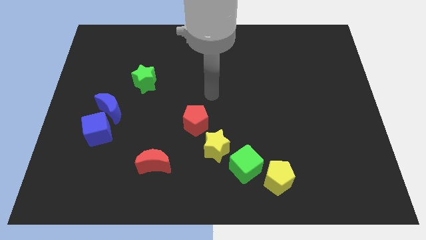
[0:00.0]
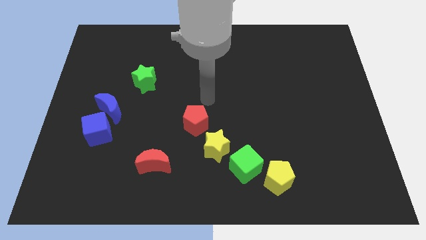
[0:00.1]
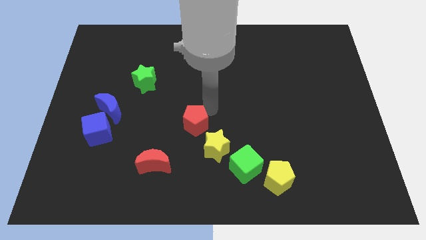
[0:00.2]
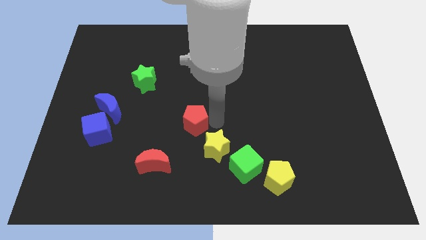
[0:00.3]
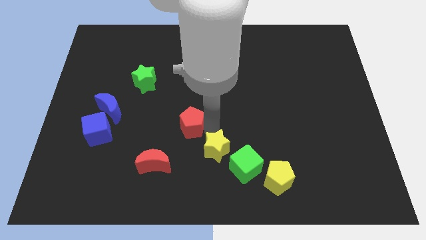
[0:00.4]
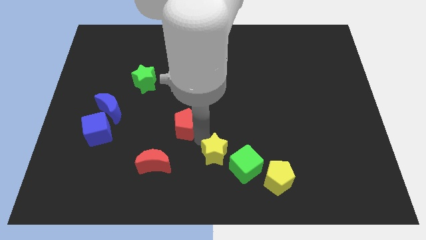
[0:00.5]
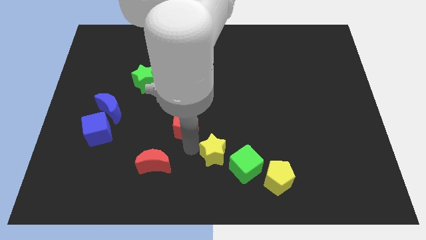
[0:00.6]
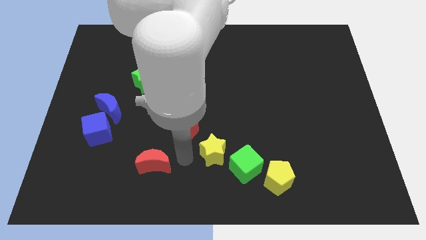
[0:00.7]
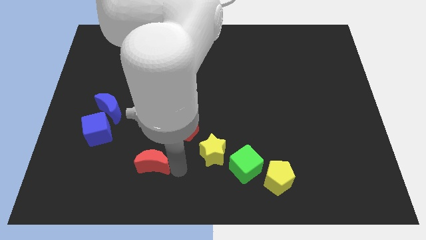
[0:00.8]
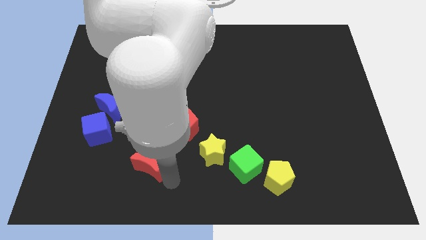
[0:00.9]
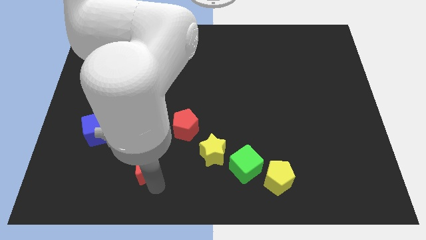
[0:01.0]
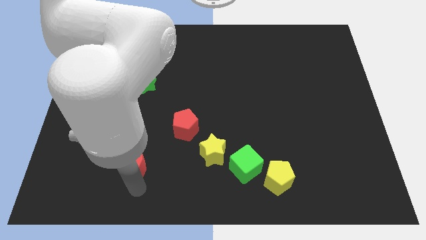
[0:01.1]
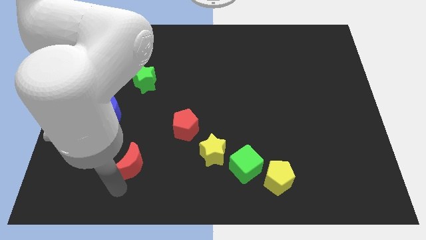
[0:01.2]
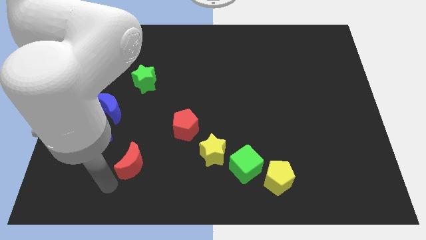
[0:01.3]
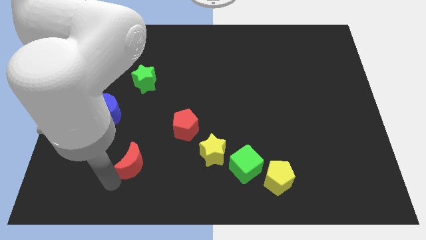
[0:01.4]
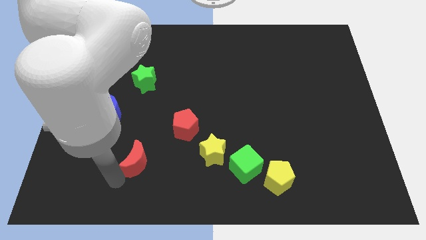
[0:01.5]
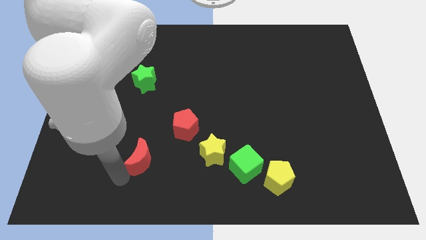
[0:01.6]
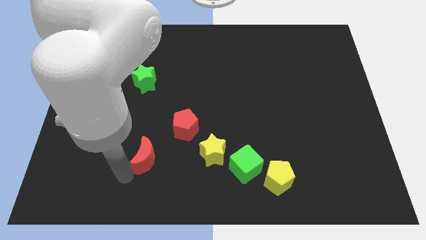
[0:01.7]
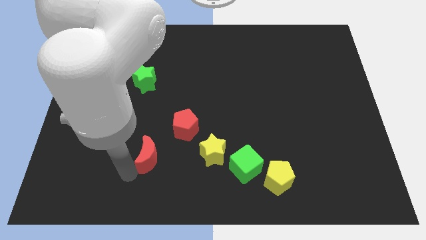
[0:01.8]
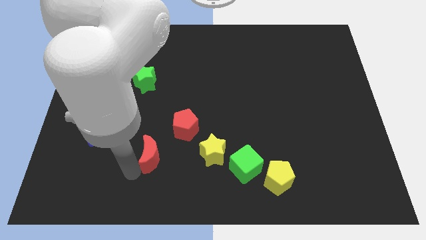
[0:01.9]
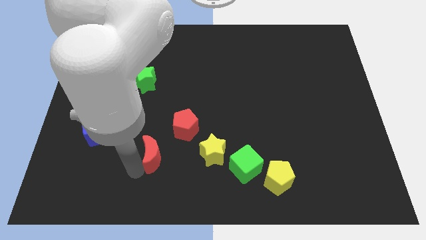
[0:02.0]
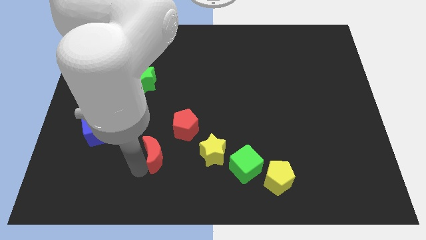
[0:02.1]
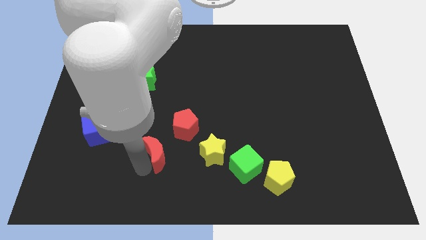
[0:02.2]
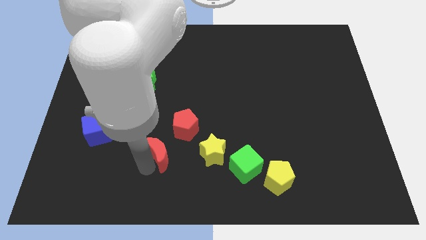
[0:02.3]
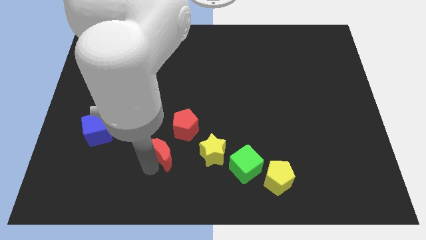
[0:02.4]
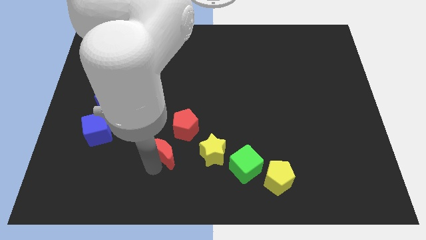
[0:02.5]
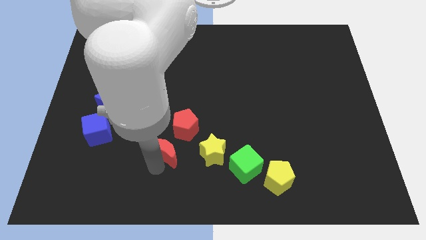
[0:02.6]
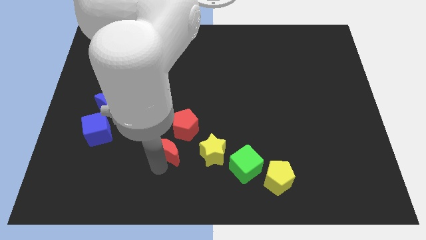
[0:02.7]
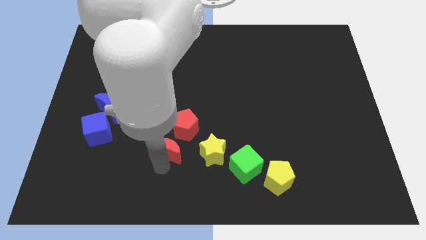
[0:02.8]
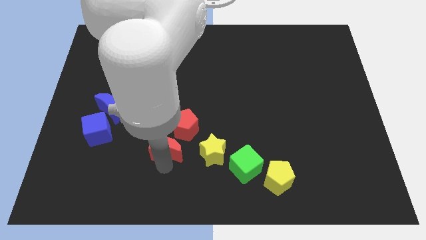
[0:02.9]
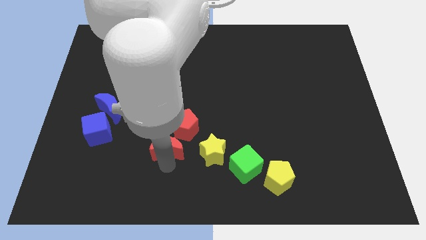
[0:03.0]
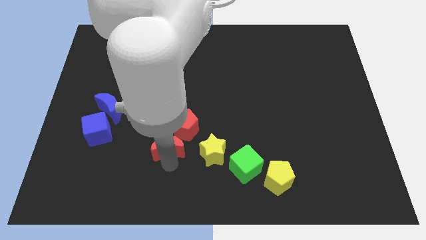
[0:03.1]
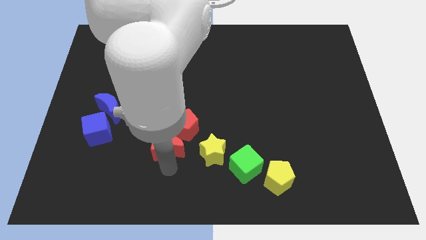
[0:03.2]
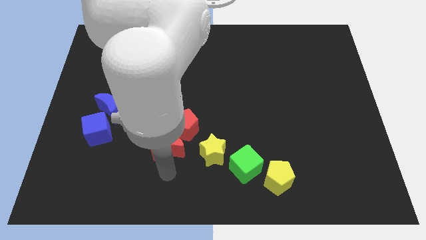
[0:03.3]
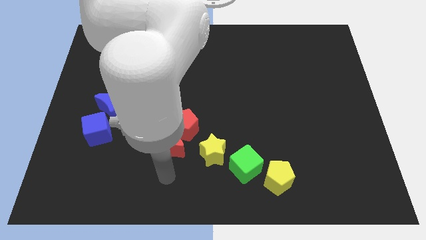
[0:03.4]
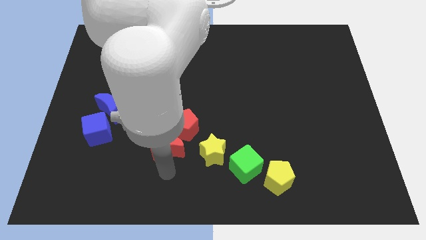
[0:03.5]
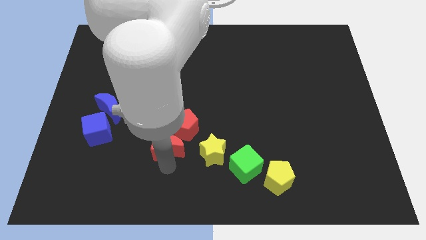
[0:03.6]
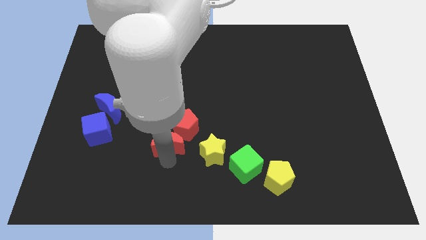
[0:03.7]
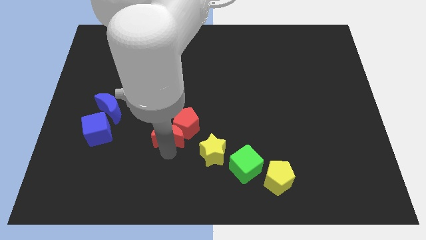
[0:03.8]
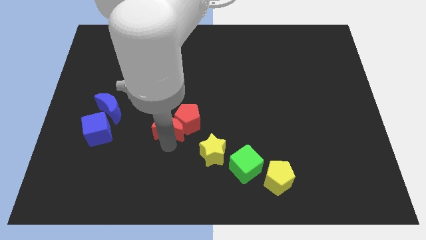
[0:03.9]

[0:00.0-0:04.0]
push the red moon up and to the right somewhat

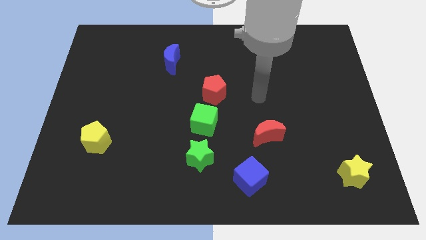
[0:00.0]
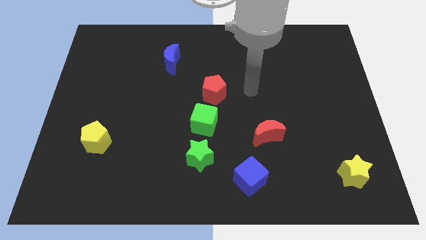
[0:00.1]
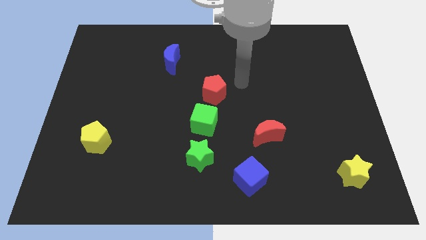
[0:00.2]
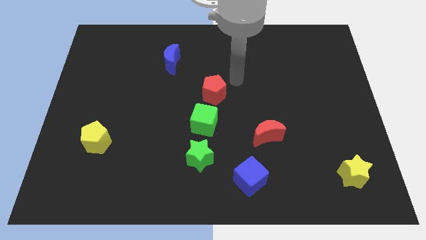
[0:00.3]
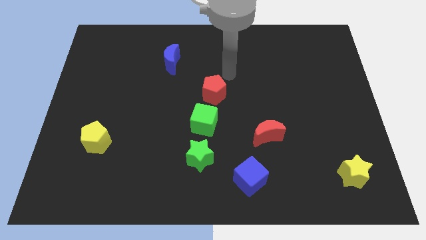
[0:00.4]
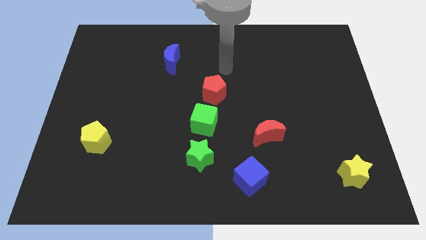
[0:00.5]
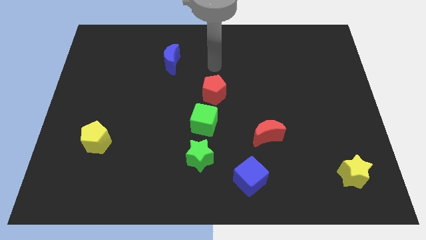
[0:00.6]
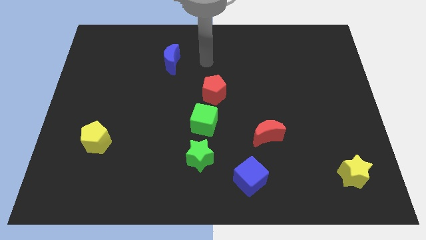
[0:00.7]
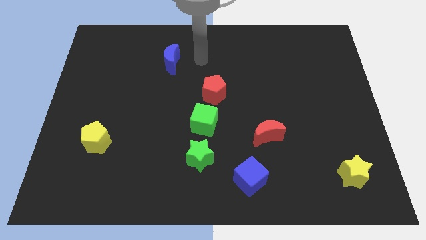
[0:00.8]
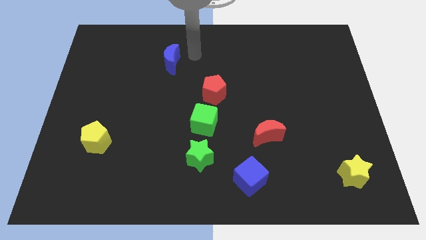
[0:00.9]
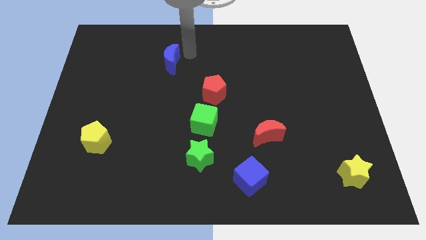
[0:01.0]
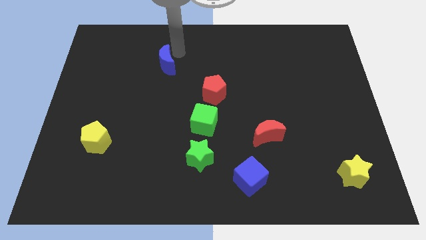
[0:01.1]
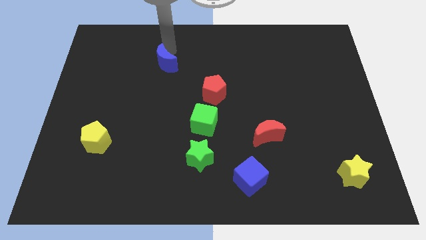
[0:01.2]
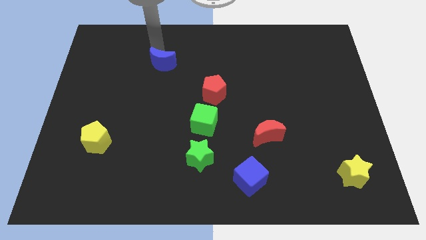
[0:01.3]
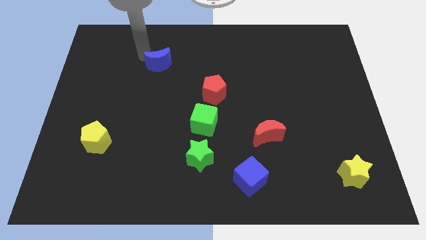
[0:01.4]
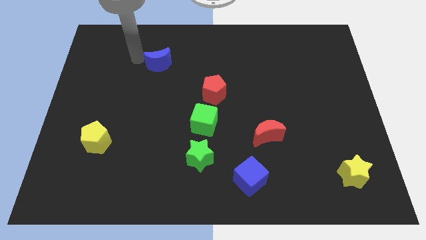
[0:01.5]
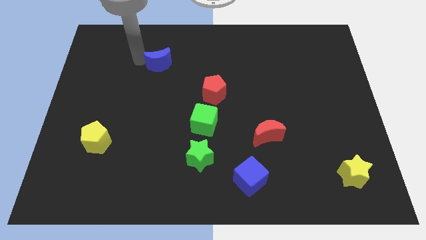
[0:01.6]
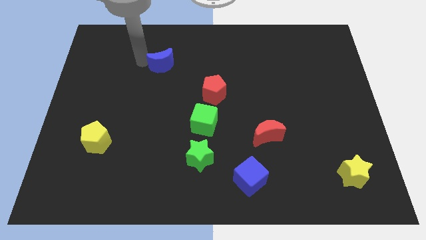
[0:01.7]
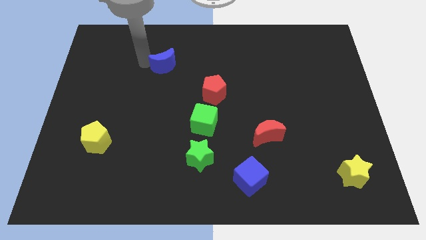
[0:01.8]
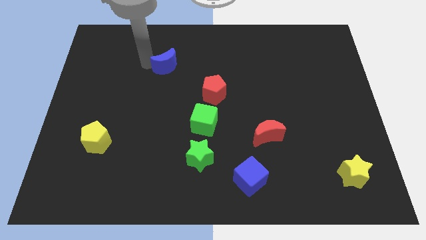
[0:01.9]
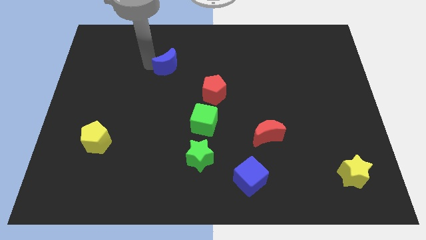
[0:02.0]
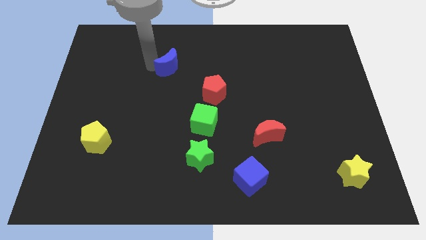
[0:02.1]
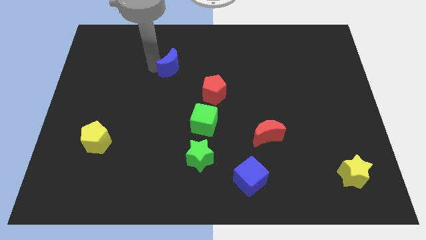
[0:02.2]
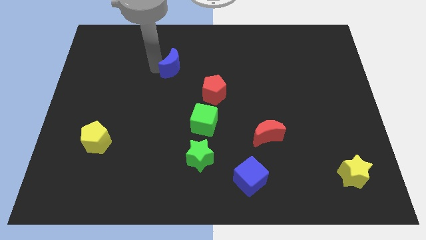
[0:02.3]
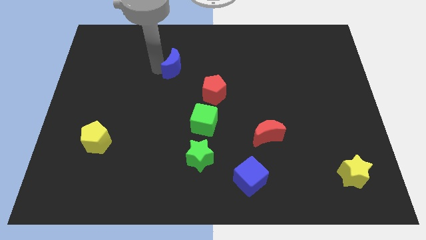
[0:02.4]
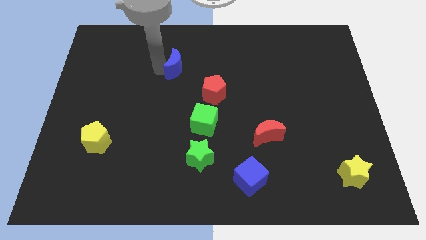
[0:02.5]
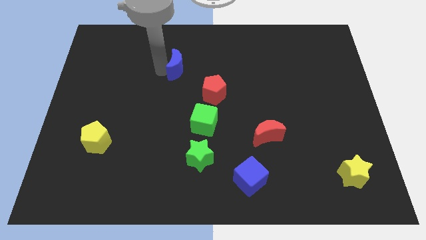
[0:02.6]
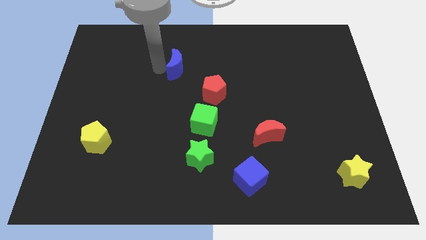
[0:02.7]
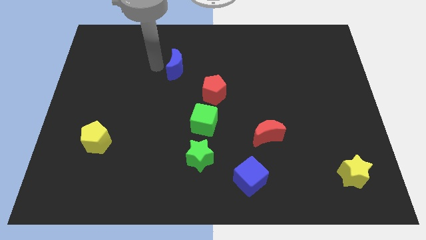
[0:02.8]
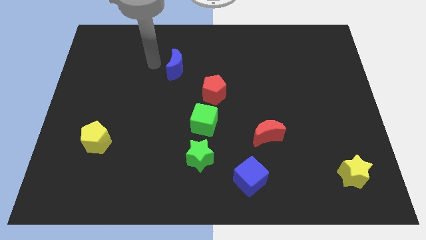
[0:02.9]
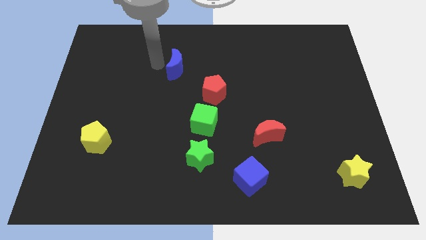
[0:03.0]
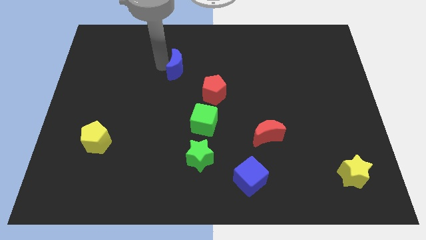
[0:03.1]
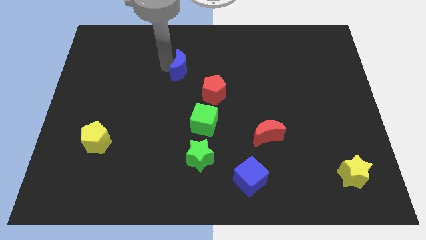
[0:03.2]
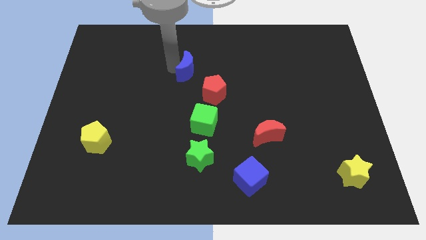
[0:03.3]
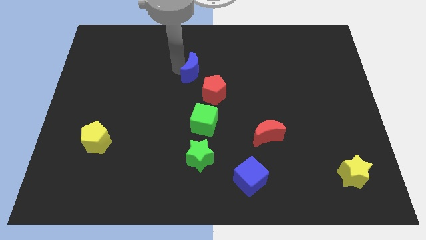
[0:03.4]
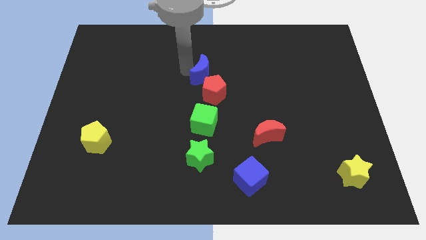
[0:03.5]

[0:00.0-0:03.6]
slide the blue moon a little bit down and then right

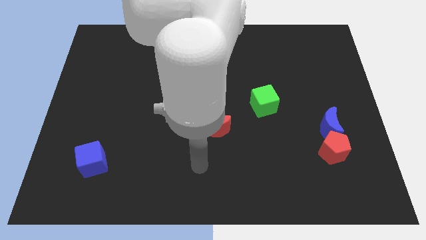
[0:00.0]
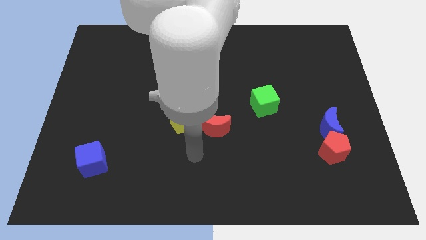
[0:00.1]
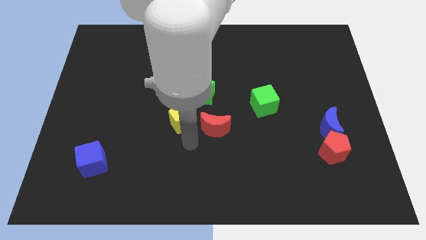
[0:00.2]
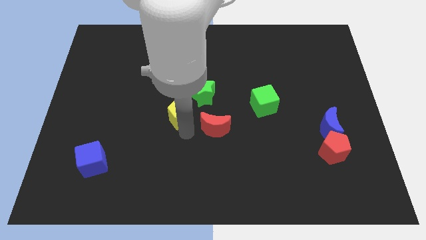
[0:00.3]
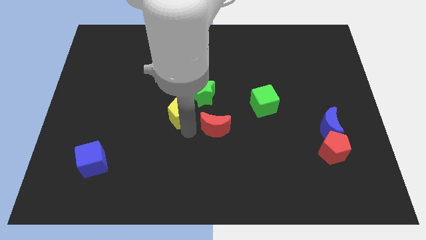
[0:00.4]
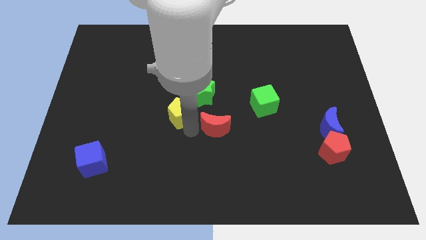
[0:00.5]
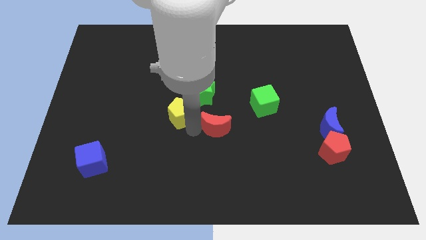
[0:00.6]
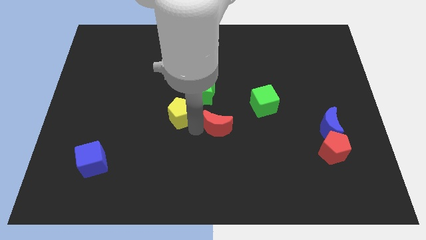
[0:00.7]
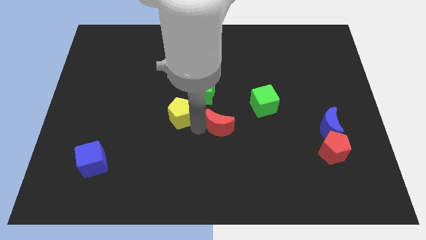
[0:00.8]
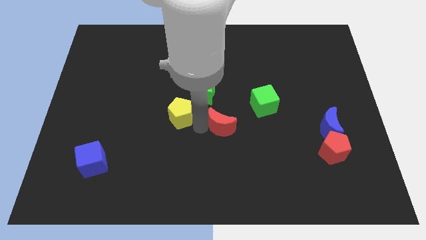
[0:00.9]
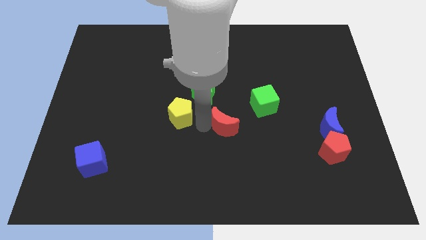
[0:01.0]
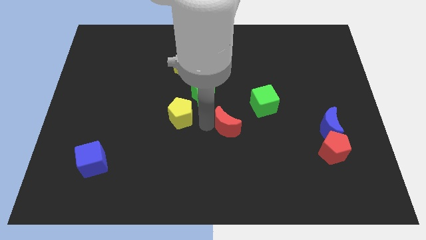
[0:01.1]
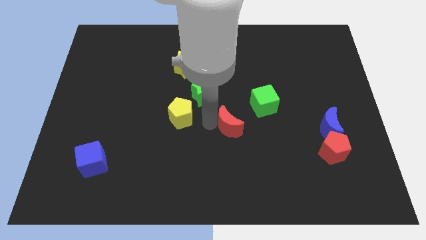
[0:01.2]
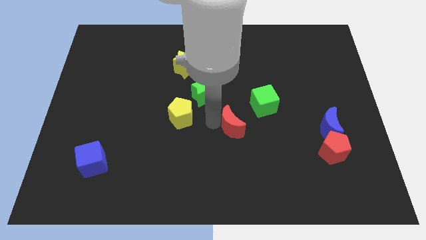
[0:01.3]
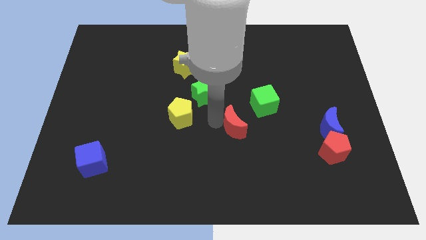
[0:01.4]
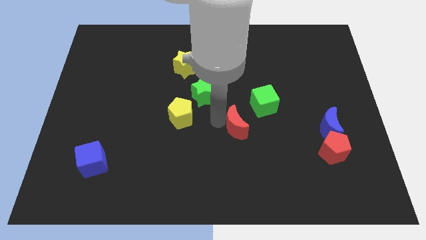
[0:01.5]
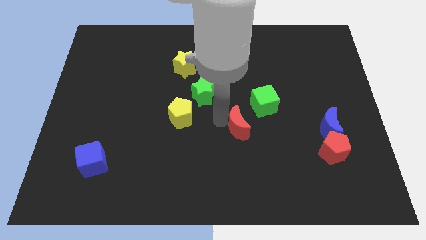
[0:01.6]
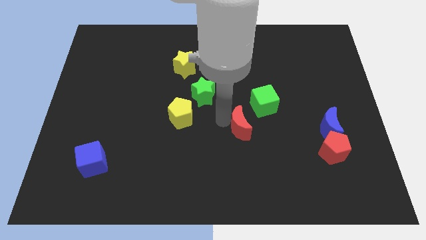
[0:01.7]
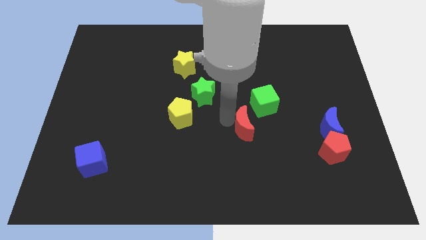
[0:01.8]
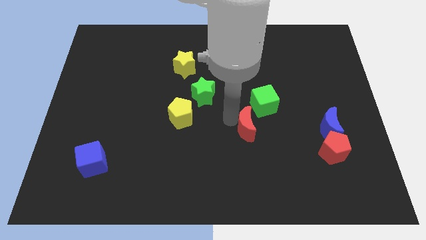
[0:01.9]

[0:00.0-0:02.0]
slightly slide the red moon right
